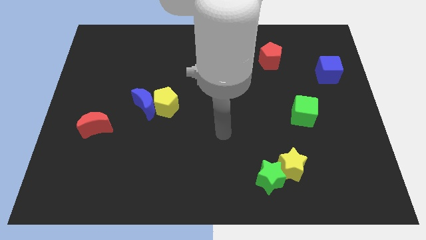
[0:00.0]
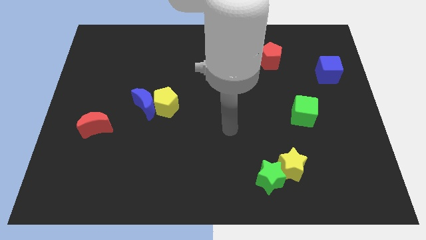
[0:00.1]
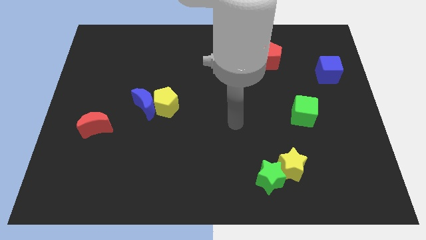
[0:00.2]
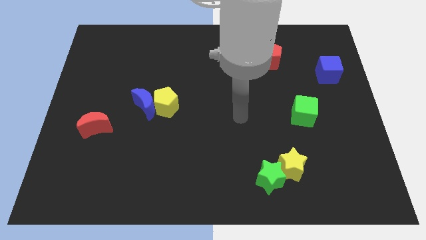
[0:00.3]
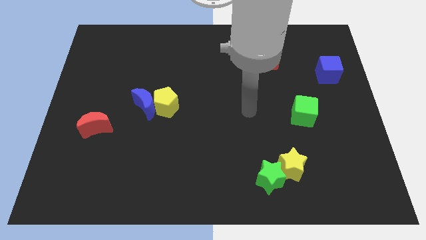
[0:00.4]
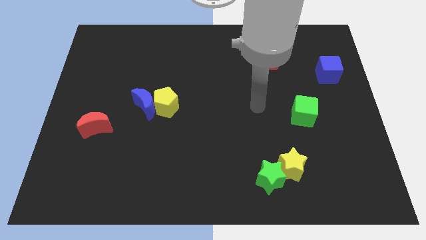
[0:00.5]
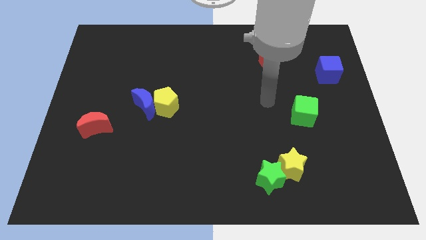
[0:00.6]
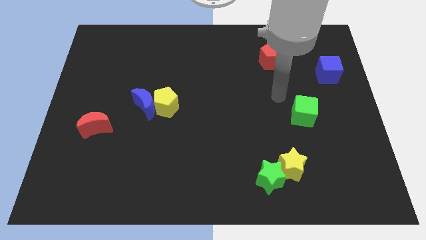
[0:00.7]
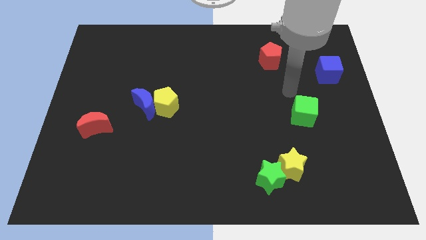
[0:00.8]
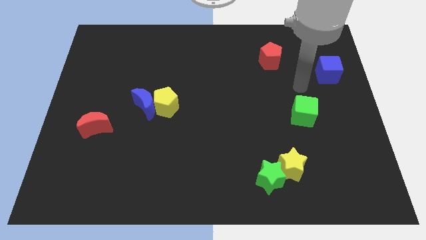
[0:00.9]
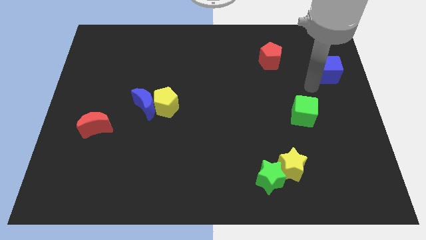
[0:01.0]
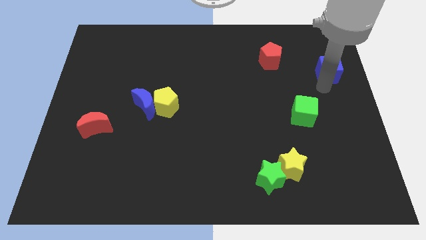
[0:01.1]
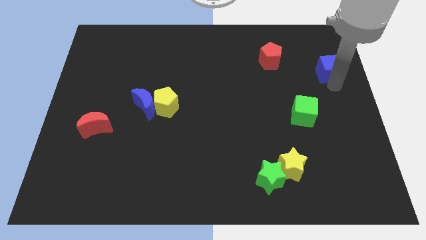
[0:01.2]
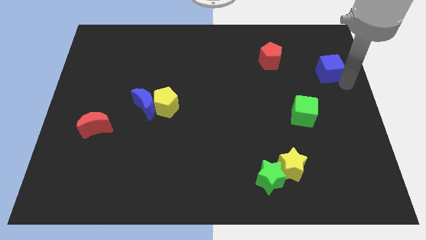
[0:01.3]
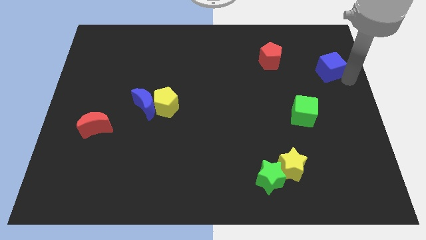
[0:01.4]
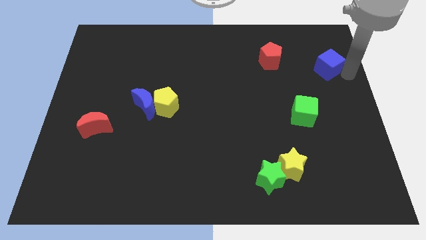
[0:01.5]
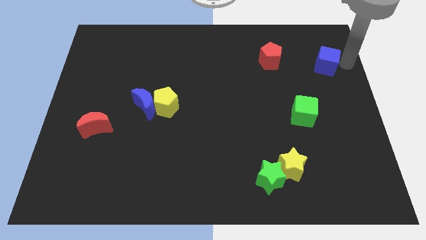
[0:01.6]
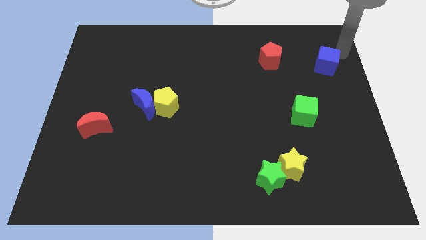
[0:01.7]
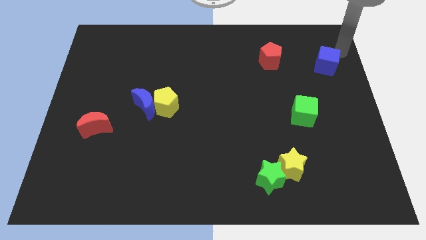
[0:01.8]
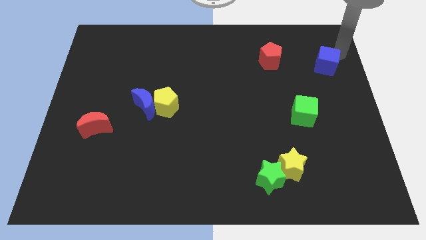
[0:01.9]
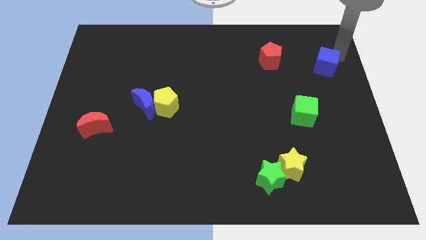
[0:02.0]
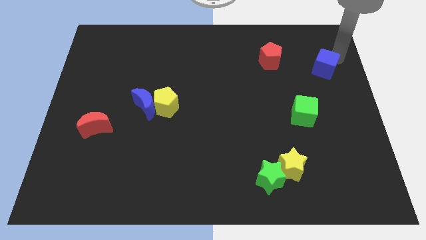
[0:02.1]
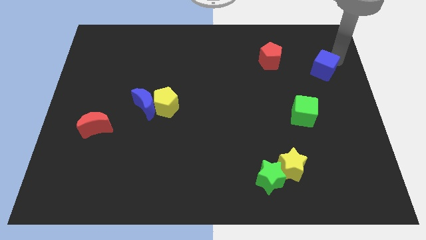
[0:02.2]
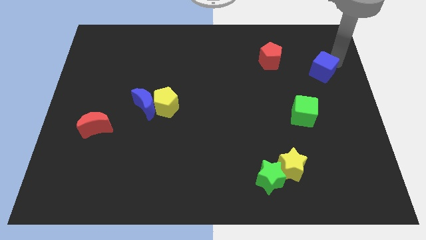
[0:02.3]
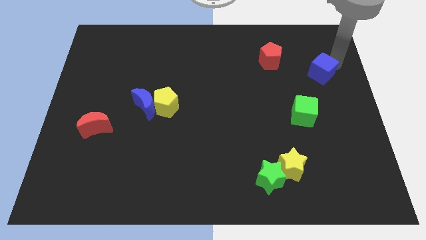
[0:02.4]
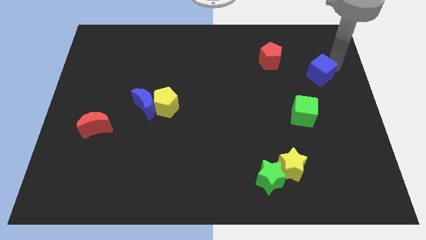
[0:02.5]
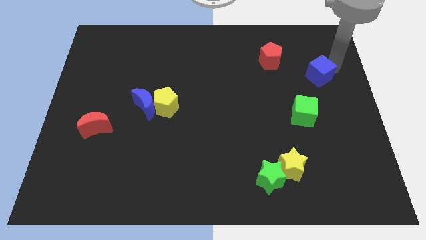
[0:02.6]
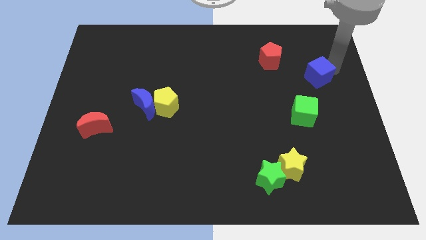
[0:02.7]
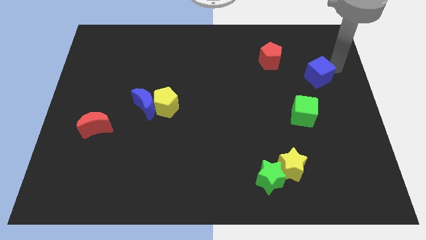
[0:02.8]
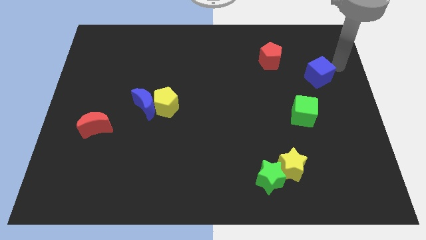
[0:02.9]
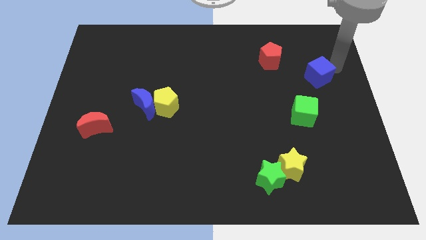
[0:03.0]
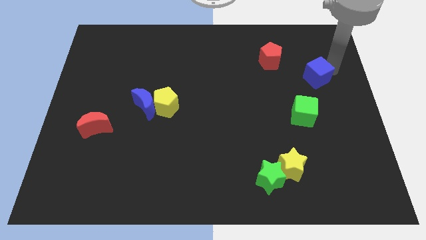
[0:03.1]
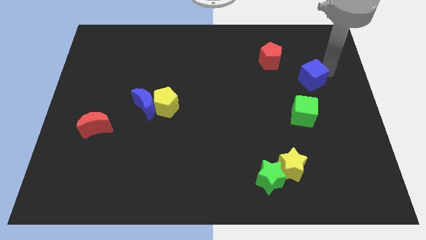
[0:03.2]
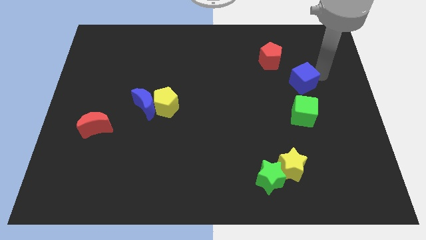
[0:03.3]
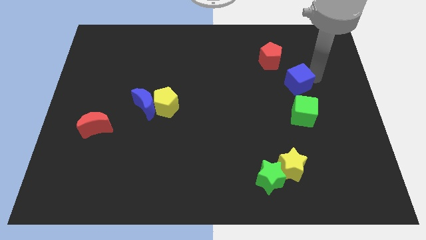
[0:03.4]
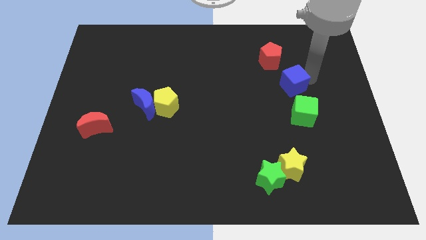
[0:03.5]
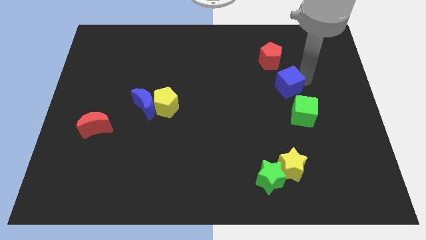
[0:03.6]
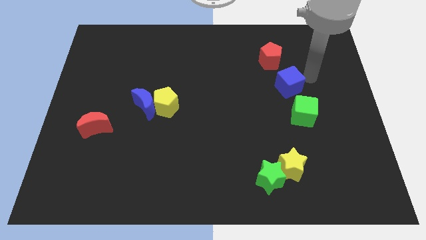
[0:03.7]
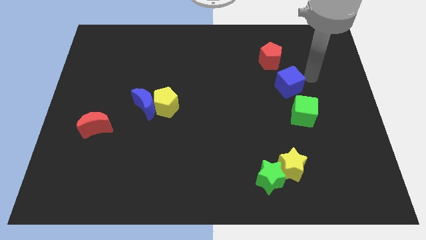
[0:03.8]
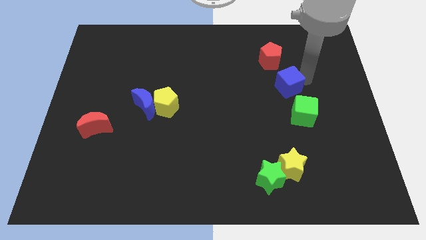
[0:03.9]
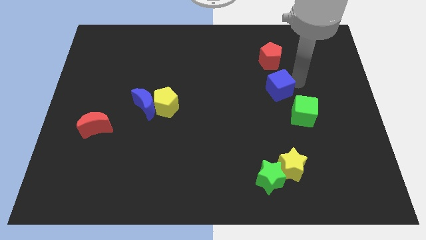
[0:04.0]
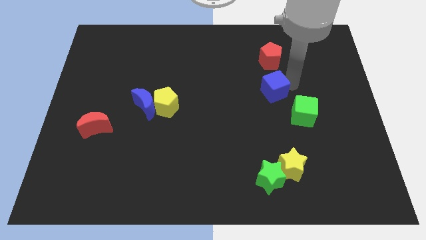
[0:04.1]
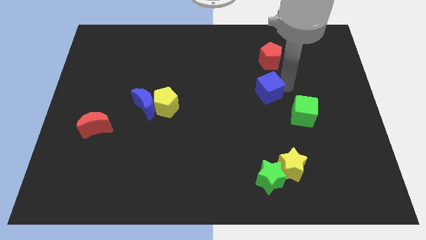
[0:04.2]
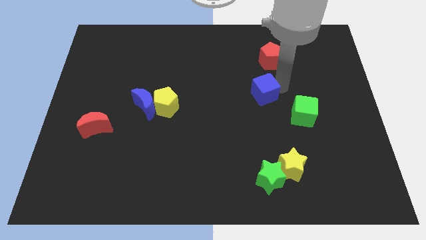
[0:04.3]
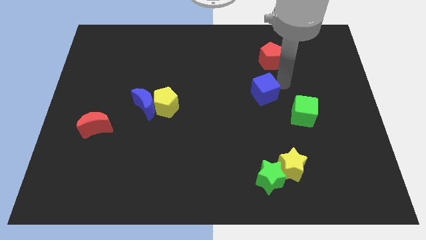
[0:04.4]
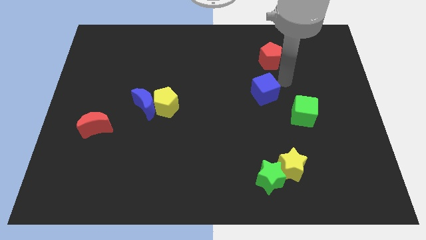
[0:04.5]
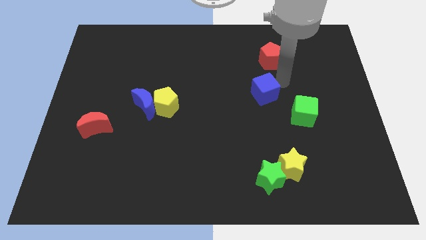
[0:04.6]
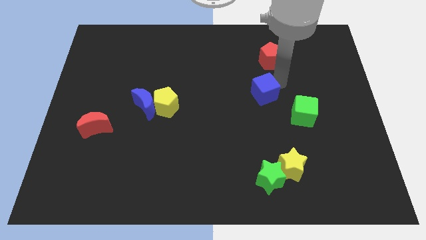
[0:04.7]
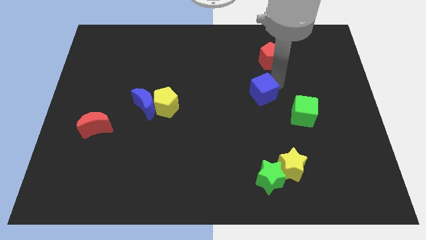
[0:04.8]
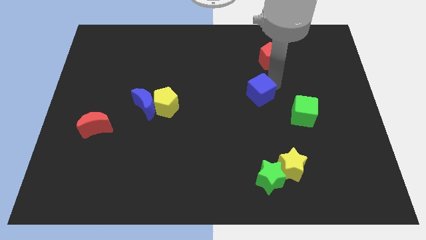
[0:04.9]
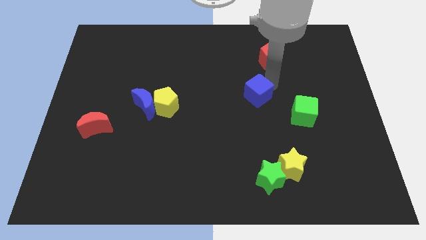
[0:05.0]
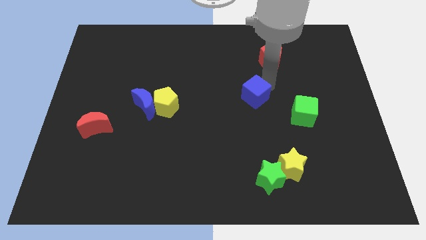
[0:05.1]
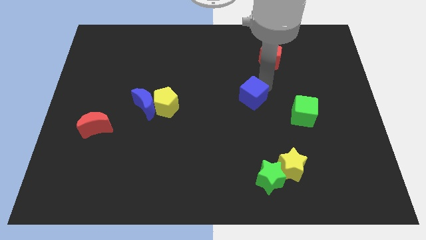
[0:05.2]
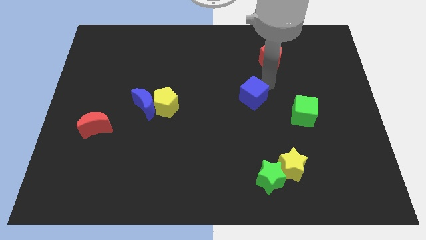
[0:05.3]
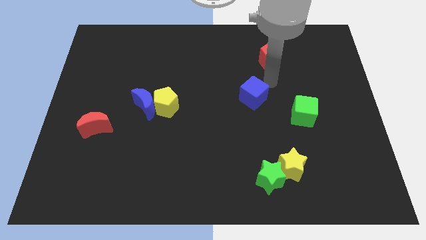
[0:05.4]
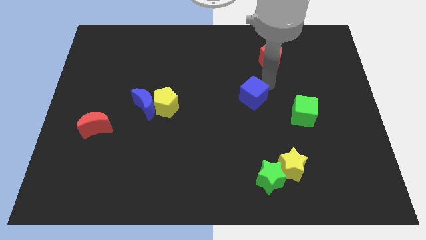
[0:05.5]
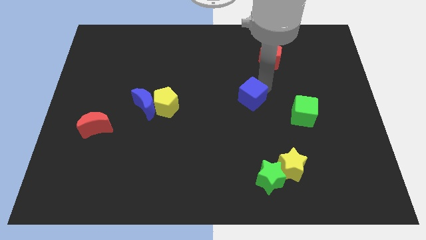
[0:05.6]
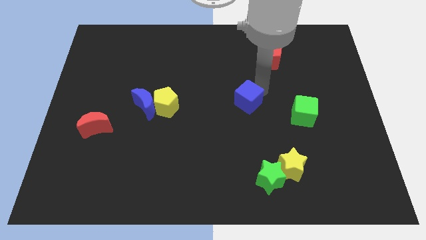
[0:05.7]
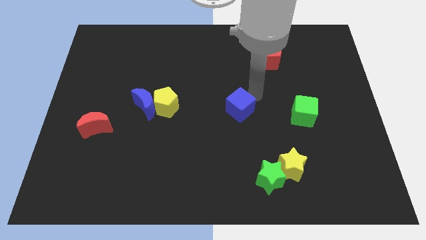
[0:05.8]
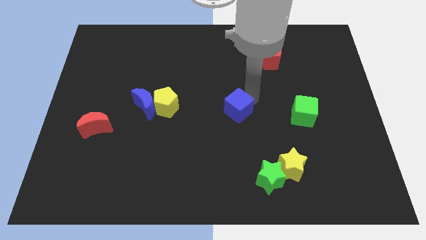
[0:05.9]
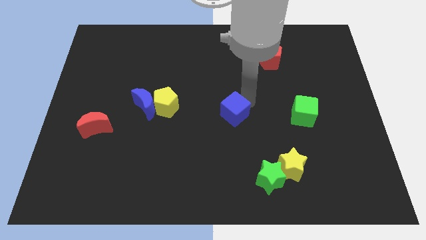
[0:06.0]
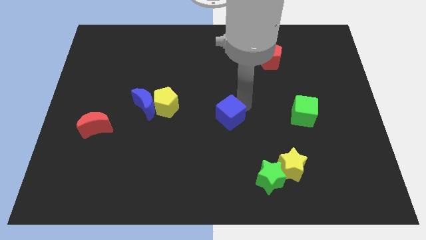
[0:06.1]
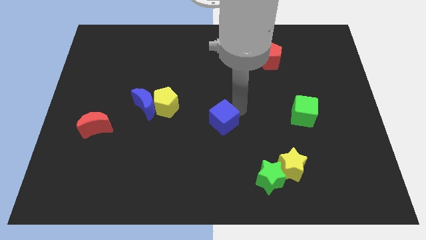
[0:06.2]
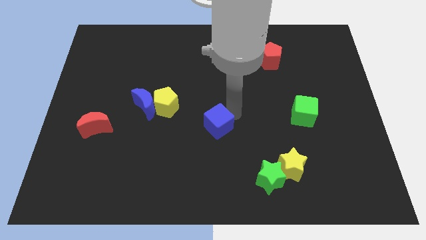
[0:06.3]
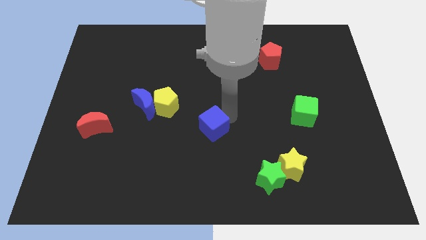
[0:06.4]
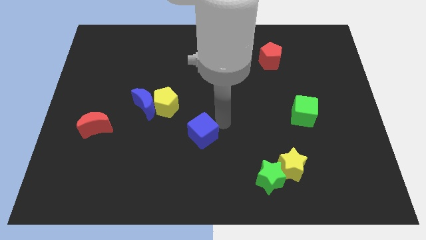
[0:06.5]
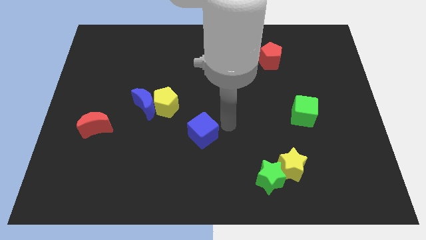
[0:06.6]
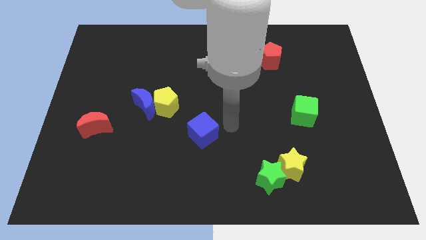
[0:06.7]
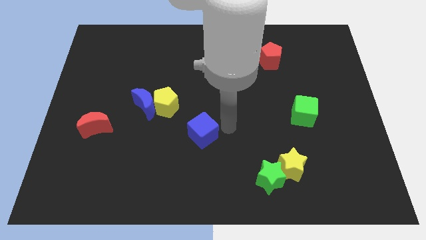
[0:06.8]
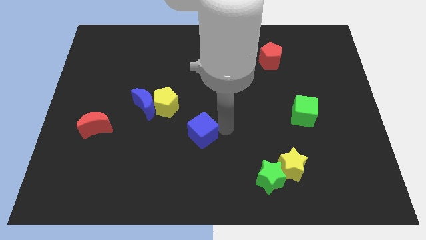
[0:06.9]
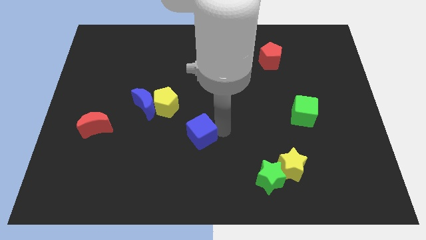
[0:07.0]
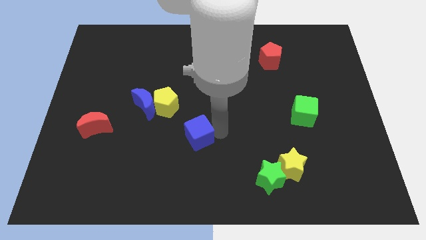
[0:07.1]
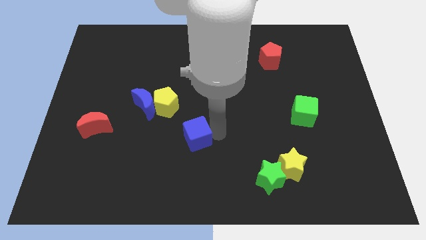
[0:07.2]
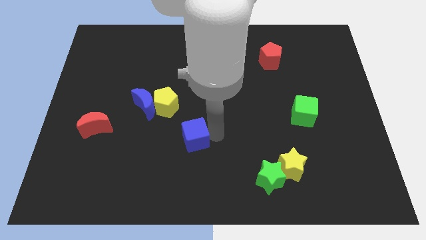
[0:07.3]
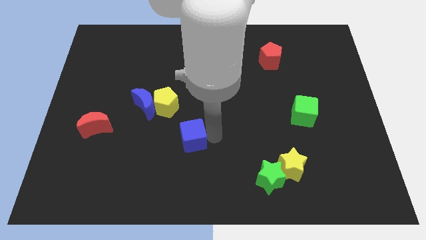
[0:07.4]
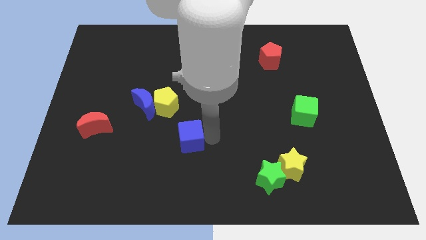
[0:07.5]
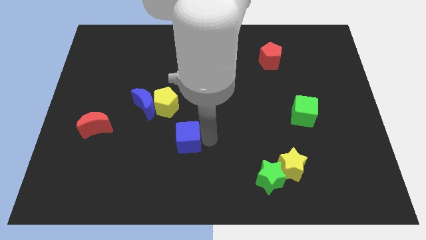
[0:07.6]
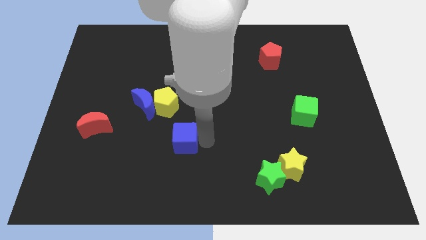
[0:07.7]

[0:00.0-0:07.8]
slide the blue cube below the yellow pentagon
